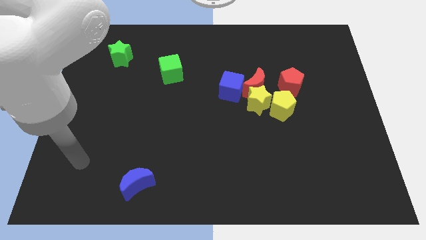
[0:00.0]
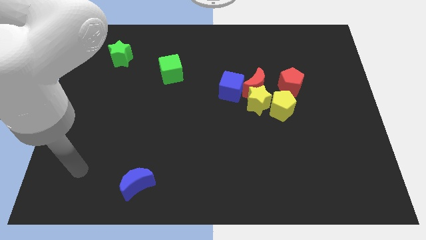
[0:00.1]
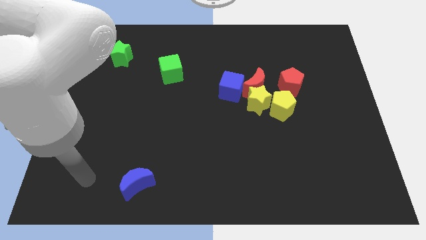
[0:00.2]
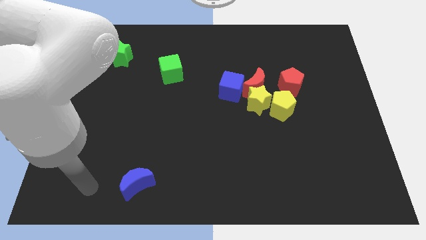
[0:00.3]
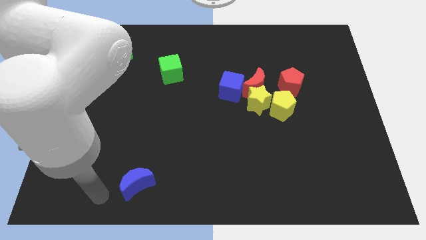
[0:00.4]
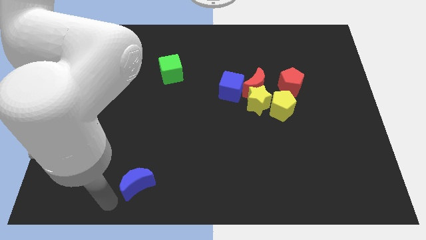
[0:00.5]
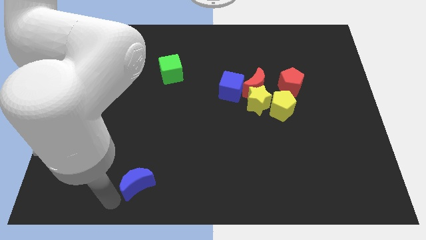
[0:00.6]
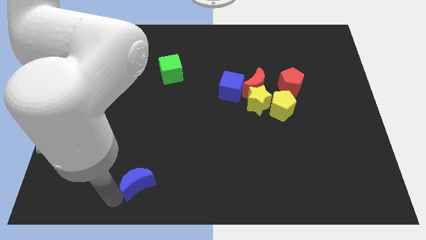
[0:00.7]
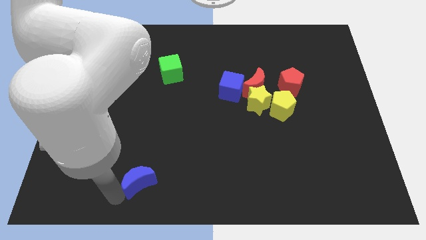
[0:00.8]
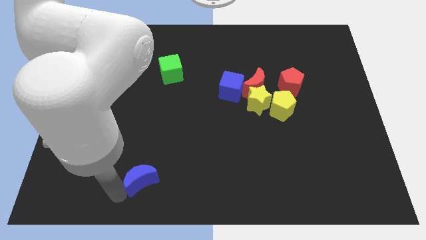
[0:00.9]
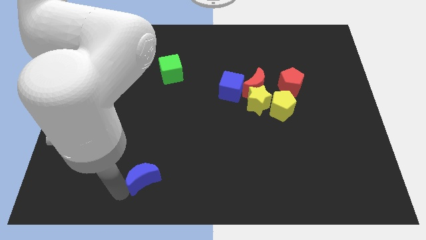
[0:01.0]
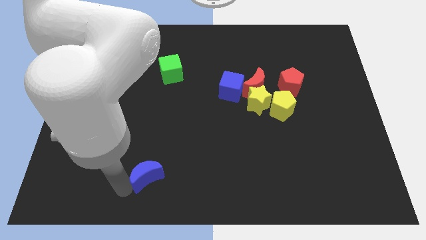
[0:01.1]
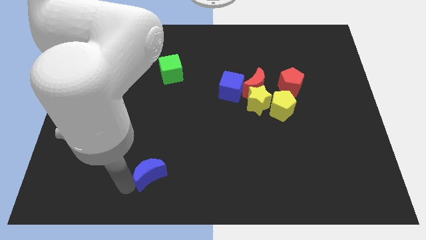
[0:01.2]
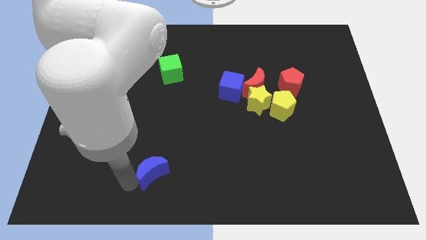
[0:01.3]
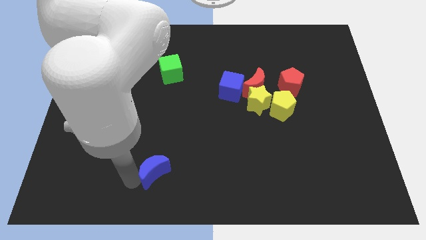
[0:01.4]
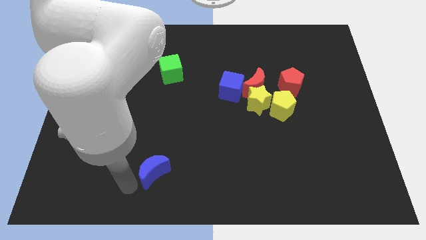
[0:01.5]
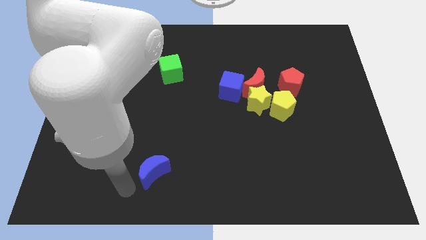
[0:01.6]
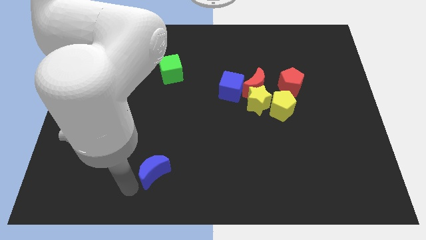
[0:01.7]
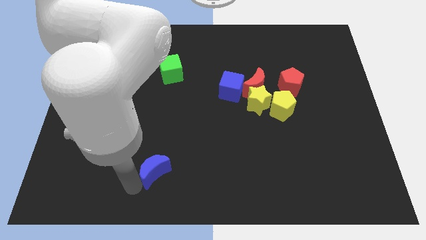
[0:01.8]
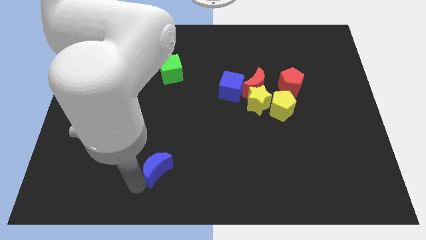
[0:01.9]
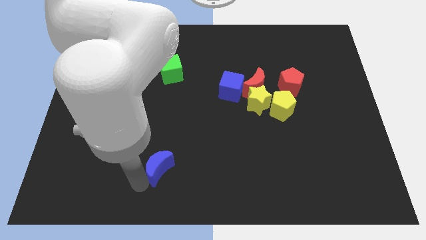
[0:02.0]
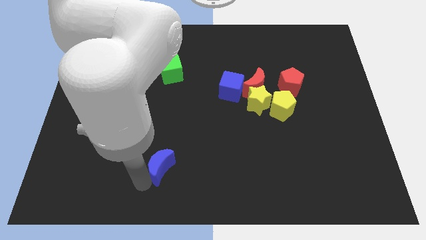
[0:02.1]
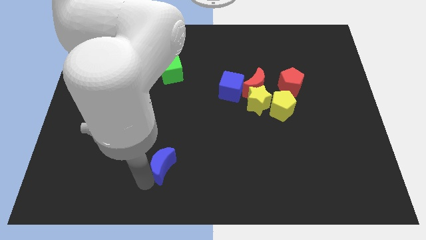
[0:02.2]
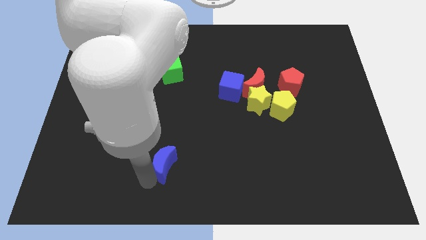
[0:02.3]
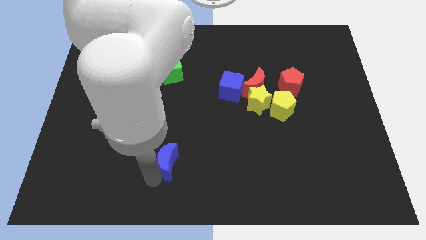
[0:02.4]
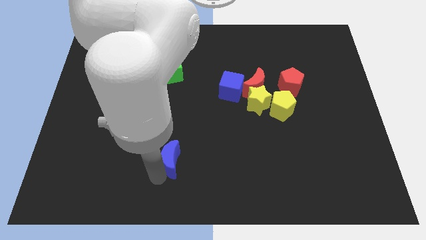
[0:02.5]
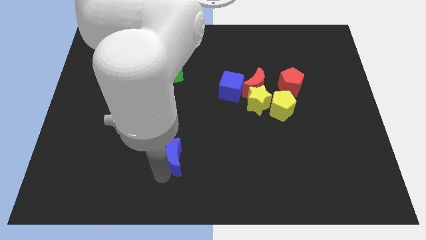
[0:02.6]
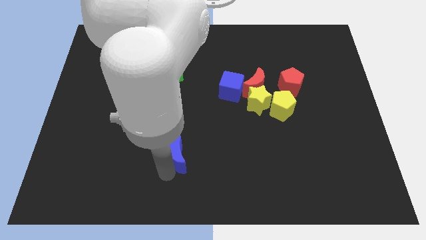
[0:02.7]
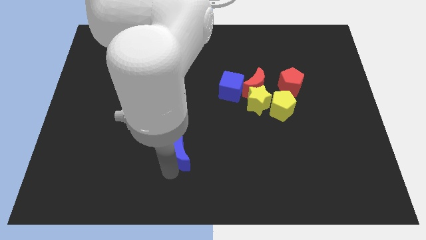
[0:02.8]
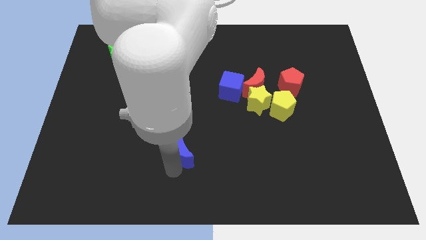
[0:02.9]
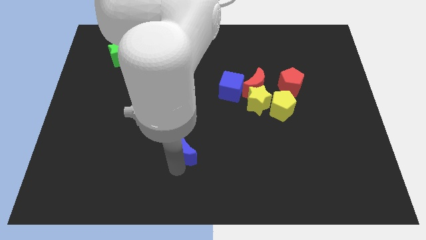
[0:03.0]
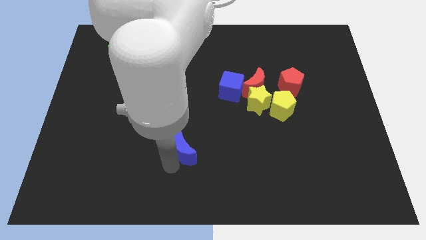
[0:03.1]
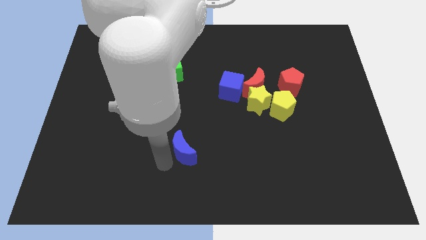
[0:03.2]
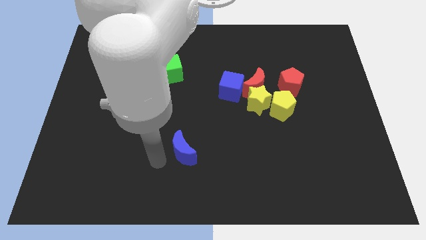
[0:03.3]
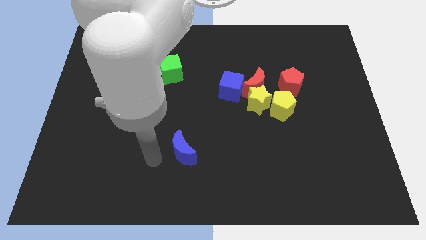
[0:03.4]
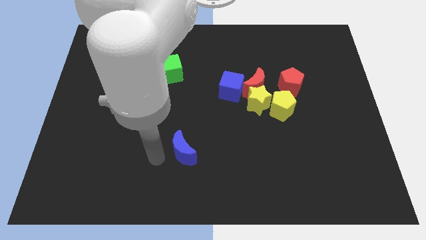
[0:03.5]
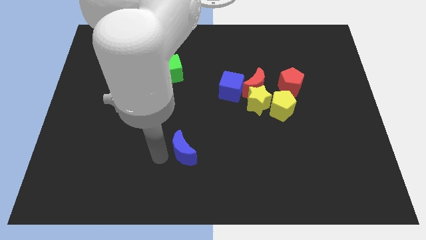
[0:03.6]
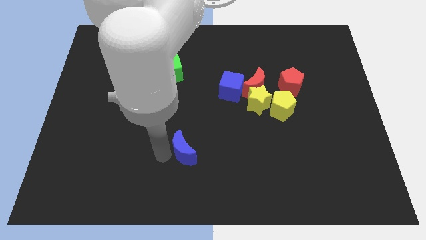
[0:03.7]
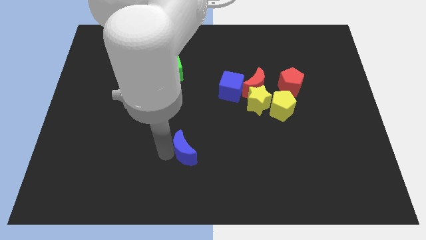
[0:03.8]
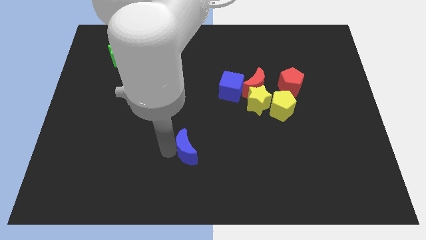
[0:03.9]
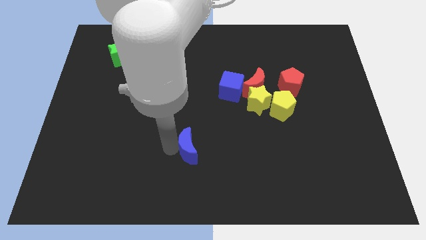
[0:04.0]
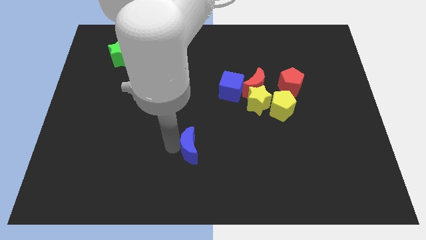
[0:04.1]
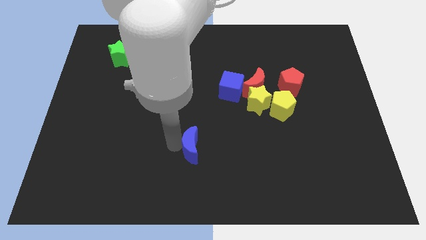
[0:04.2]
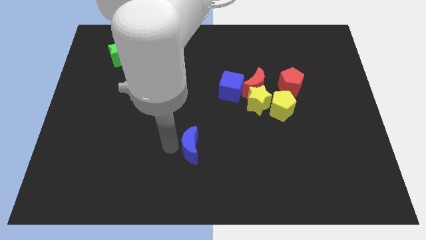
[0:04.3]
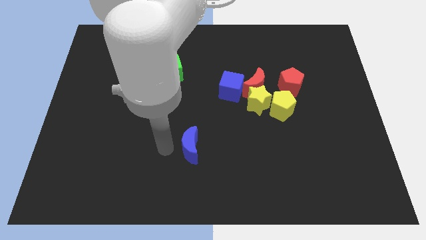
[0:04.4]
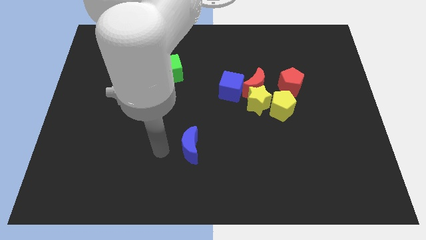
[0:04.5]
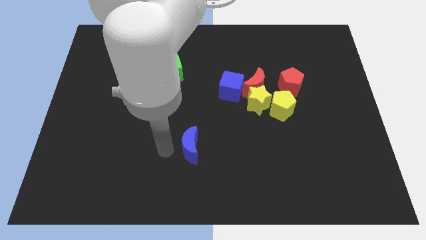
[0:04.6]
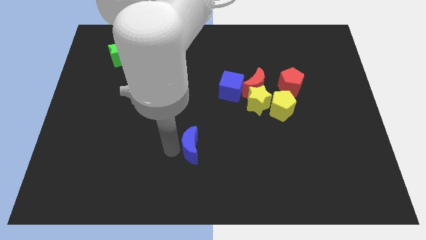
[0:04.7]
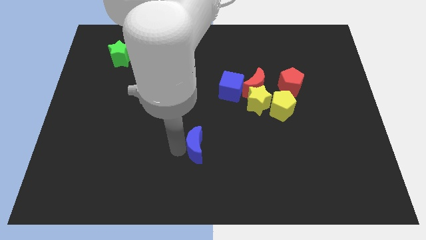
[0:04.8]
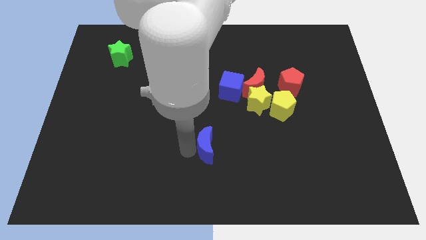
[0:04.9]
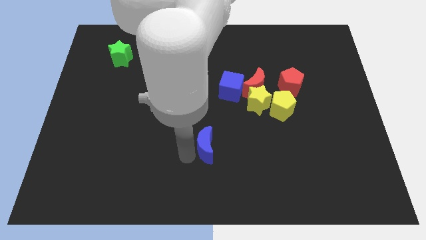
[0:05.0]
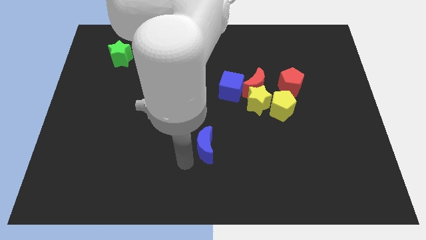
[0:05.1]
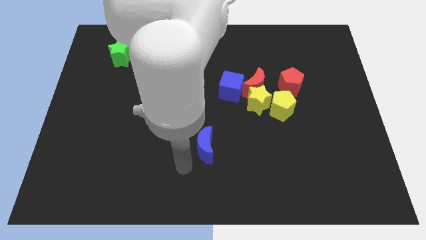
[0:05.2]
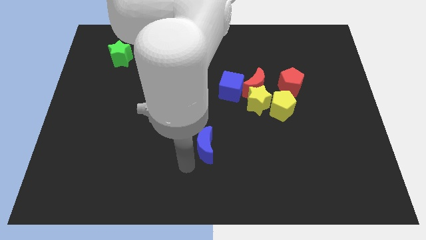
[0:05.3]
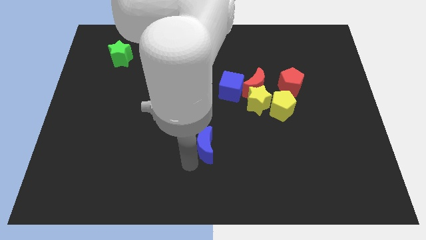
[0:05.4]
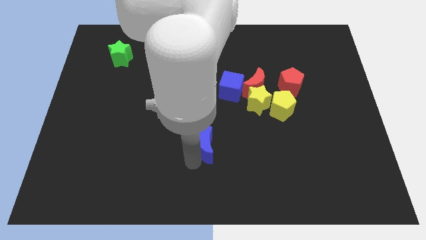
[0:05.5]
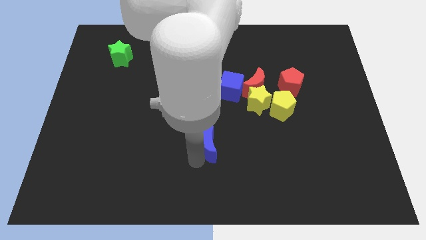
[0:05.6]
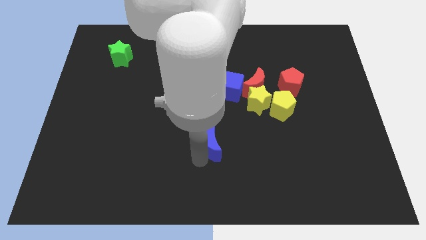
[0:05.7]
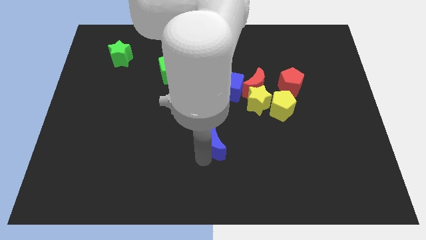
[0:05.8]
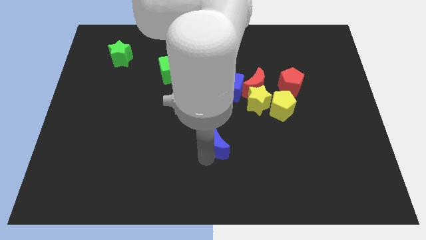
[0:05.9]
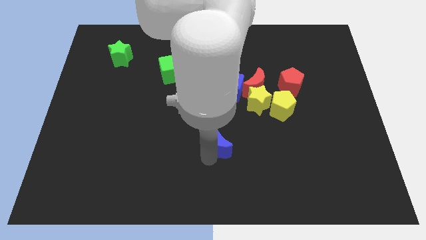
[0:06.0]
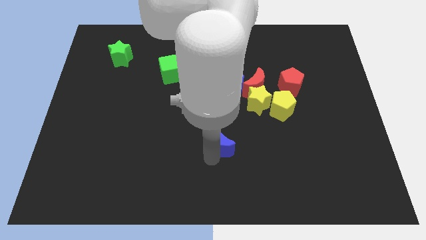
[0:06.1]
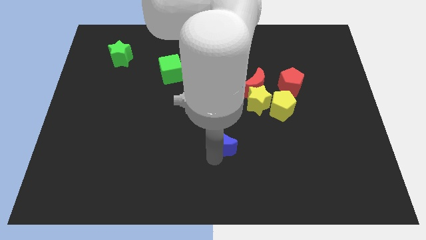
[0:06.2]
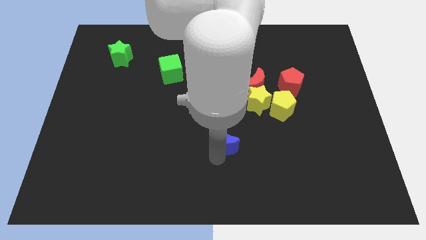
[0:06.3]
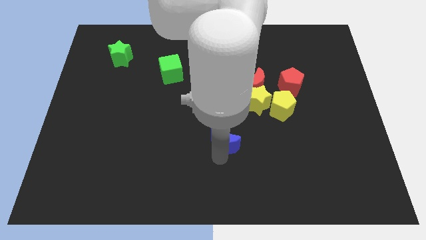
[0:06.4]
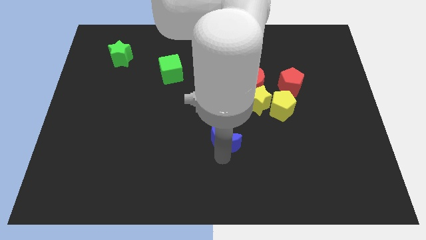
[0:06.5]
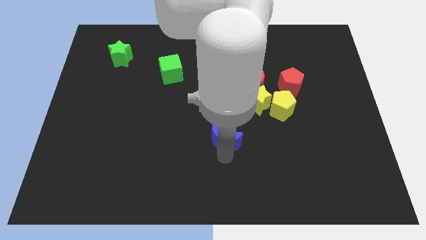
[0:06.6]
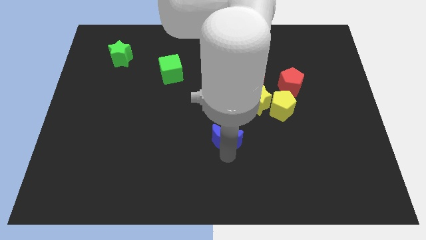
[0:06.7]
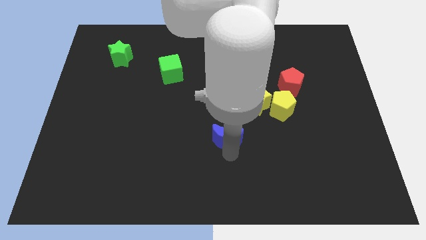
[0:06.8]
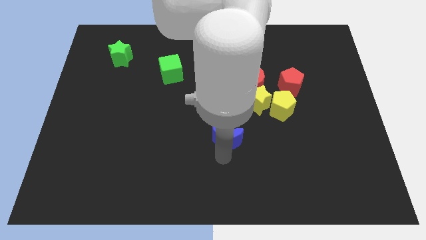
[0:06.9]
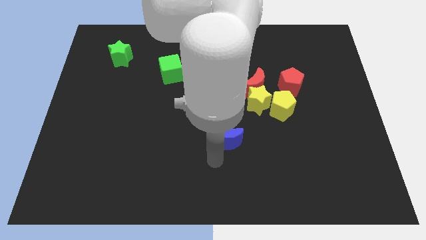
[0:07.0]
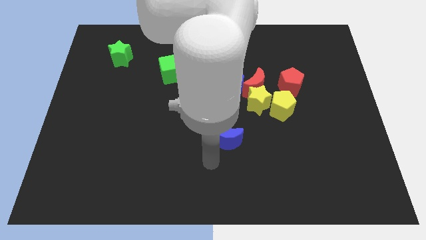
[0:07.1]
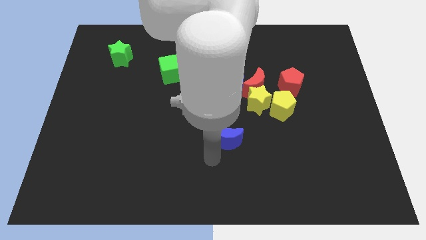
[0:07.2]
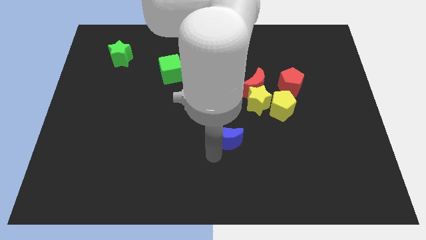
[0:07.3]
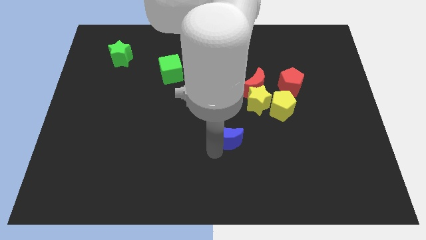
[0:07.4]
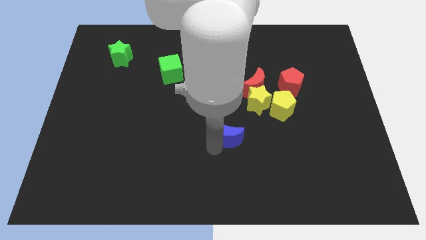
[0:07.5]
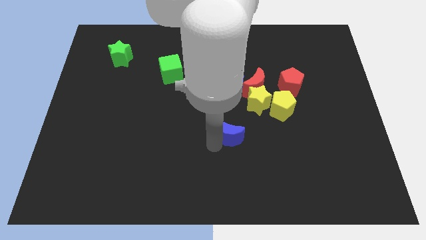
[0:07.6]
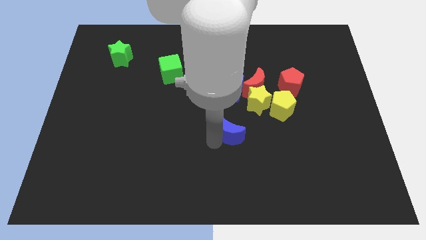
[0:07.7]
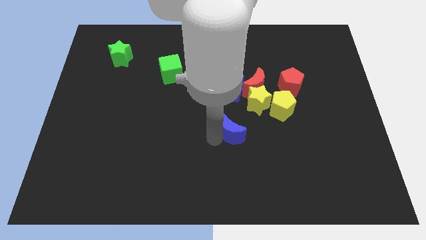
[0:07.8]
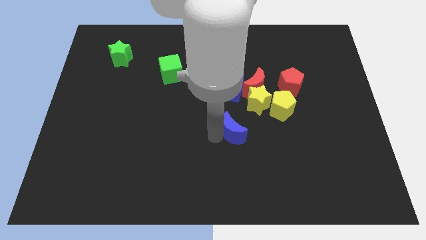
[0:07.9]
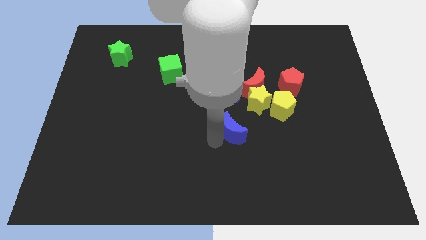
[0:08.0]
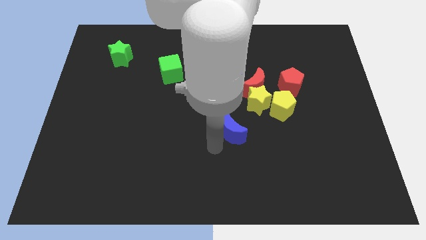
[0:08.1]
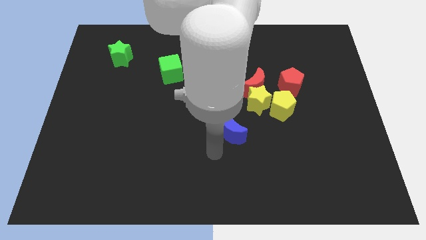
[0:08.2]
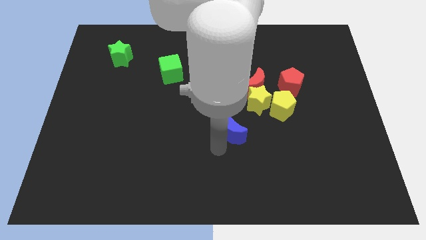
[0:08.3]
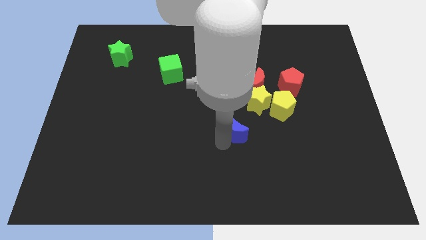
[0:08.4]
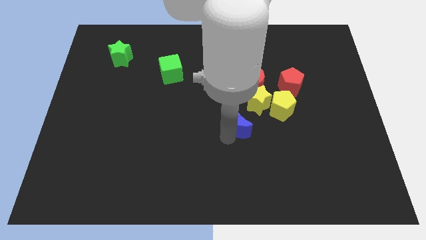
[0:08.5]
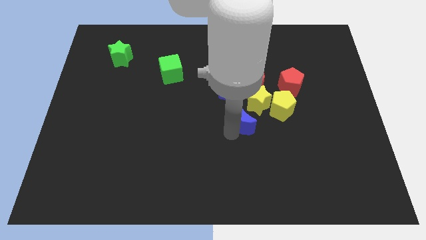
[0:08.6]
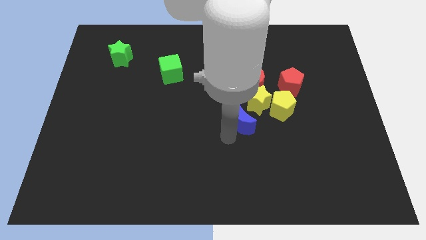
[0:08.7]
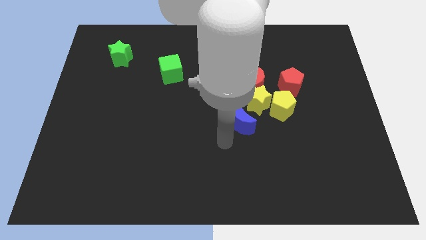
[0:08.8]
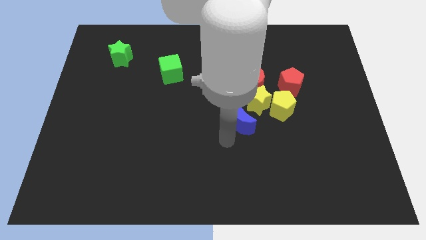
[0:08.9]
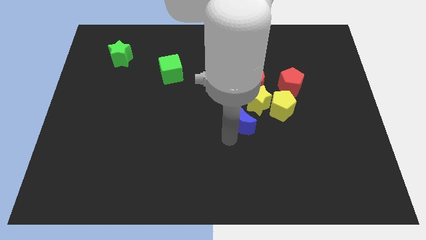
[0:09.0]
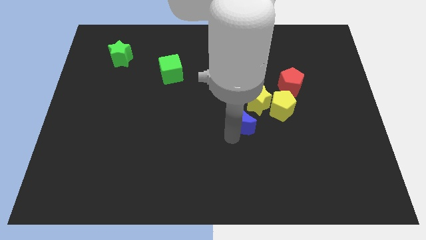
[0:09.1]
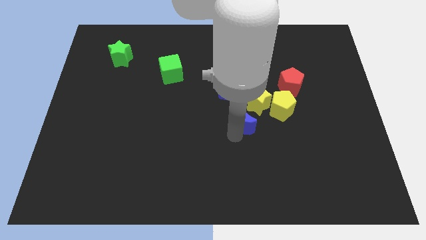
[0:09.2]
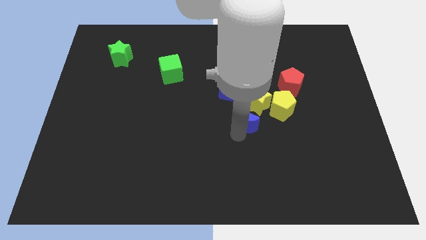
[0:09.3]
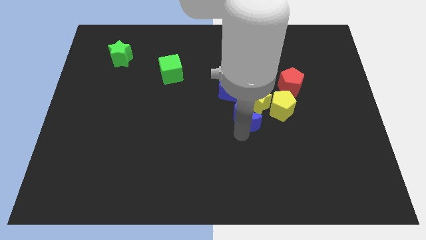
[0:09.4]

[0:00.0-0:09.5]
move the blue moon next to the yellow star
